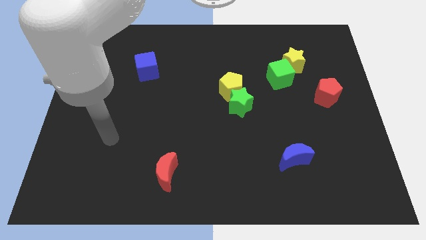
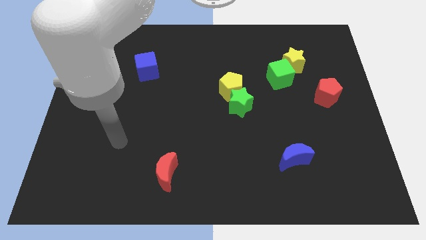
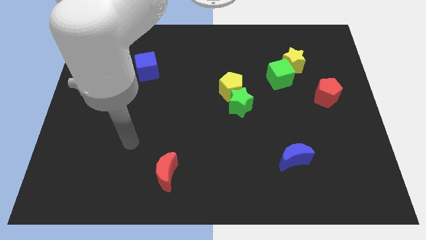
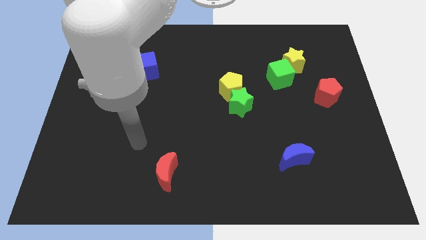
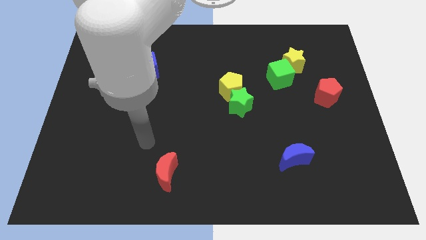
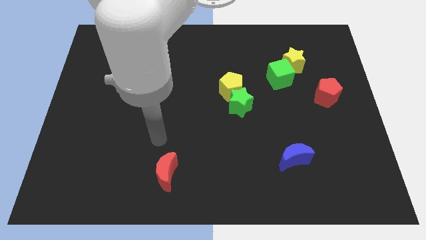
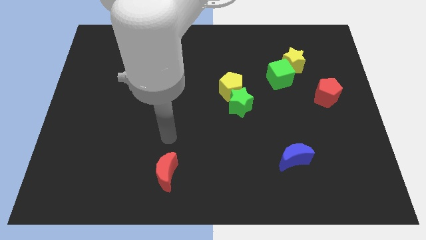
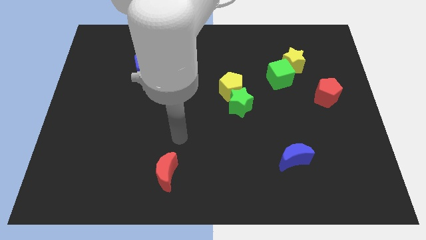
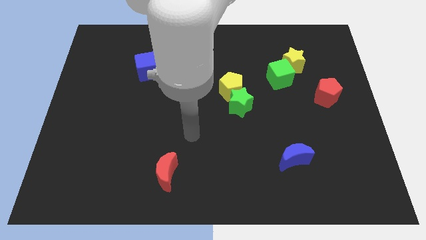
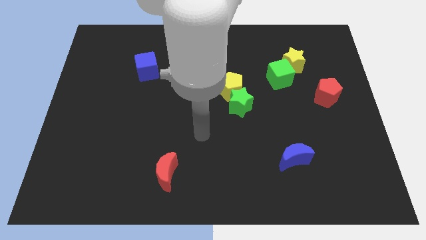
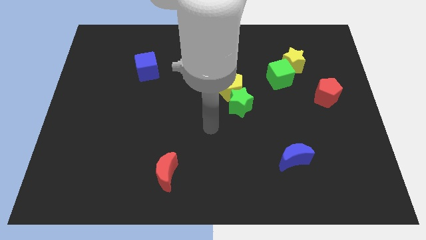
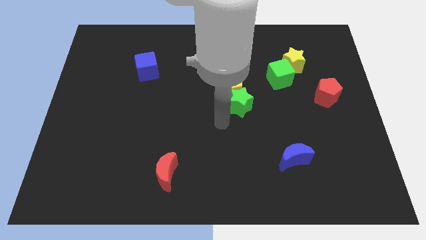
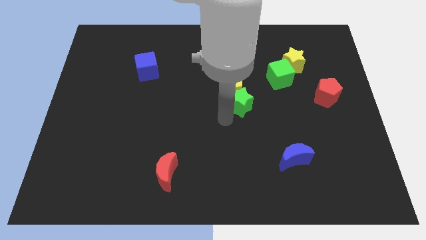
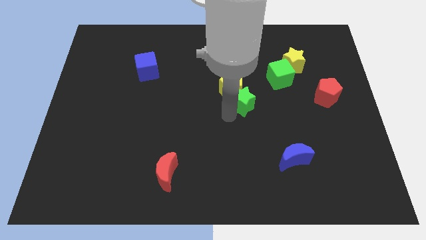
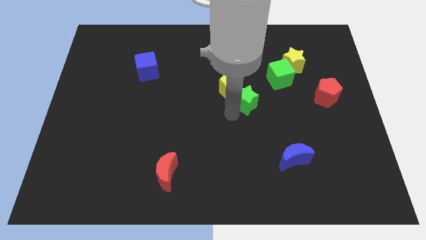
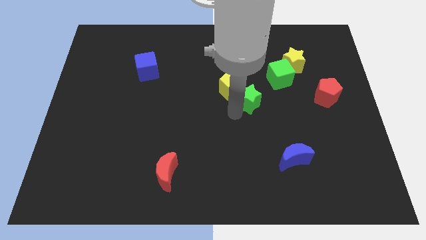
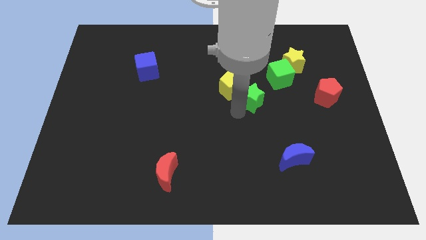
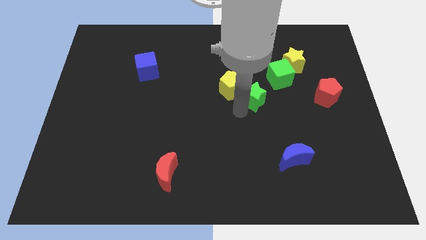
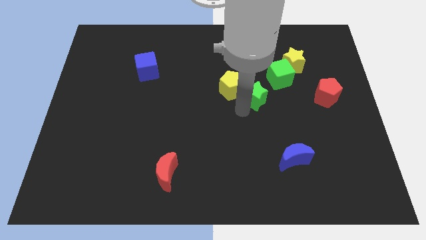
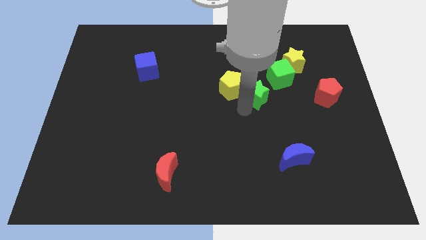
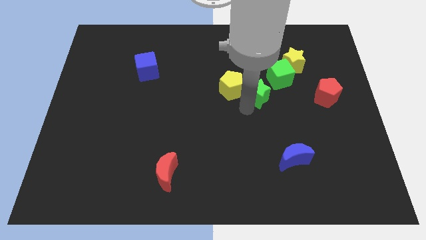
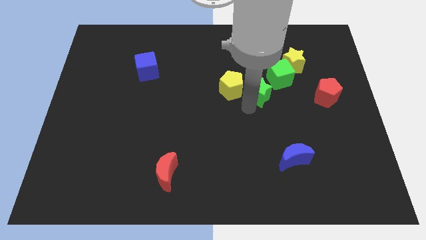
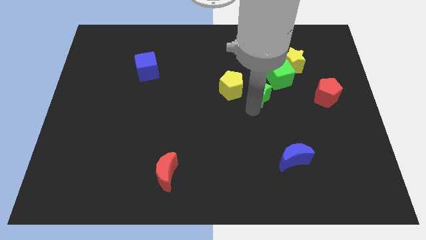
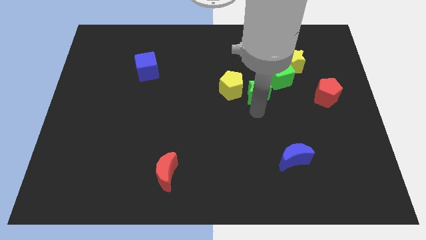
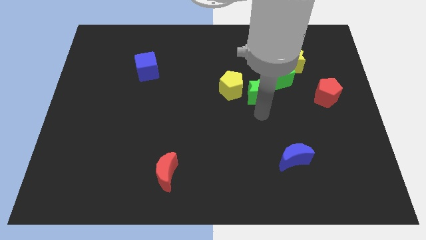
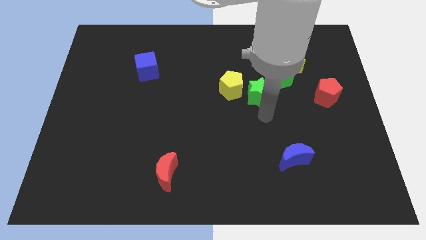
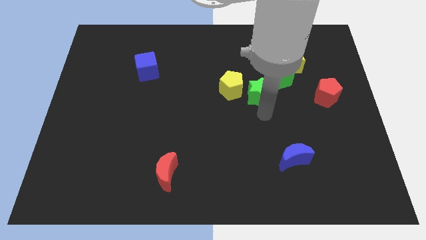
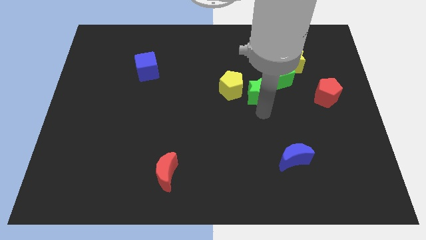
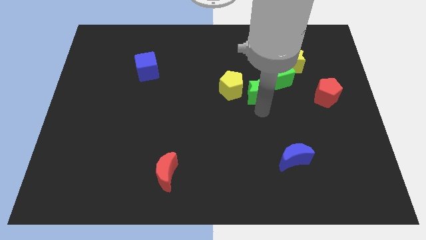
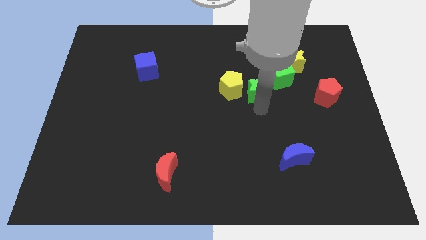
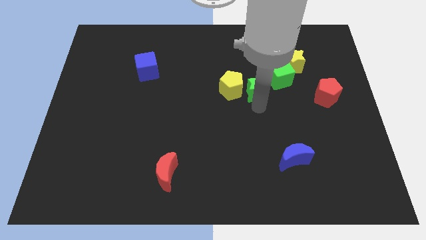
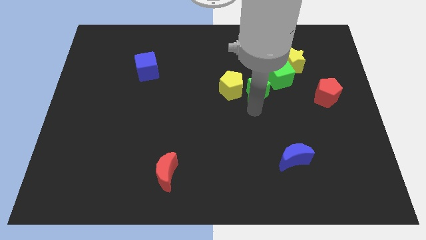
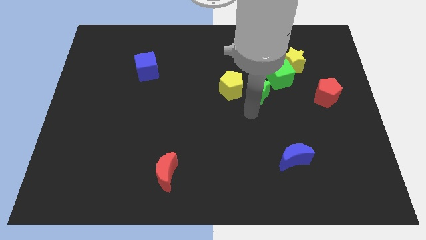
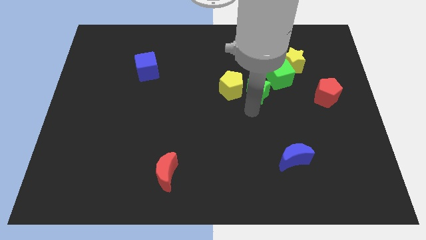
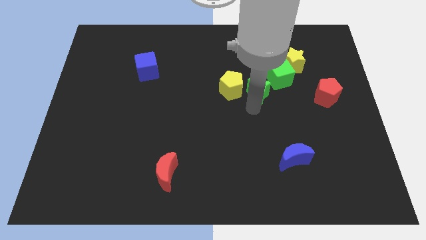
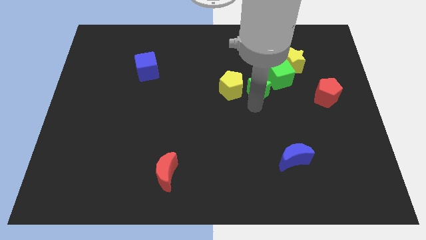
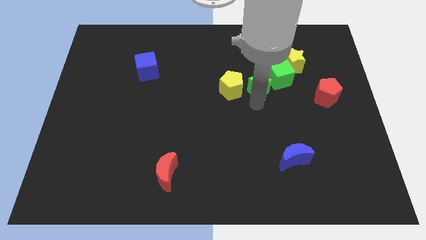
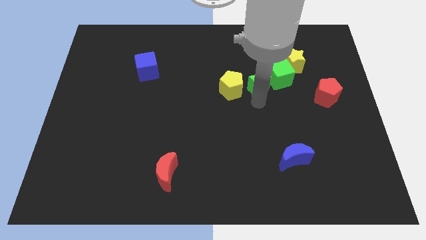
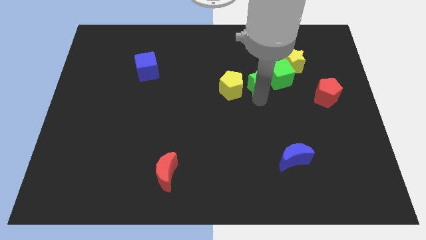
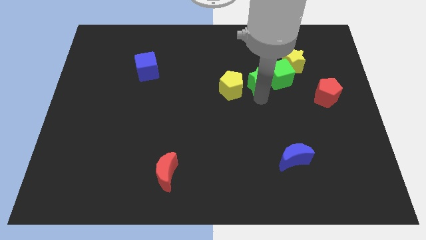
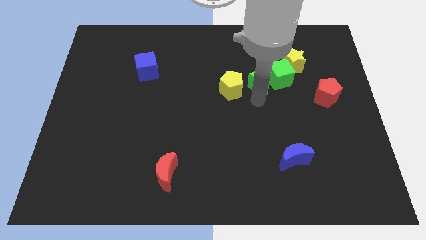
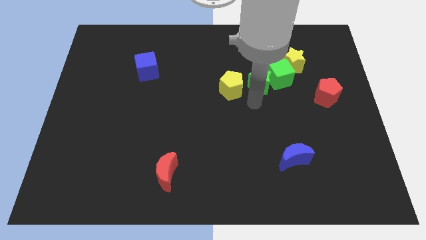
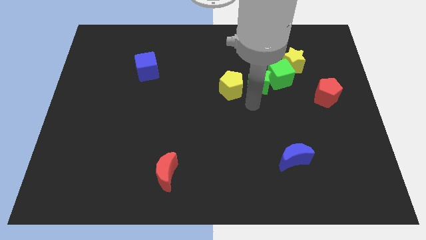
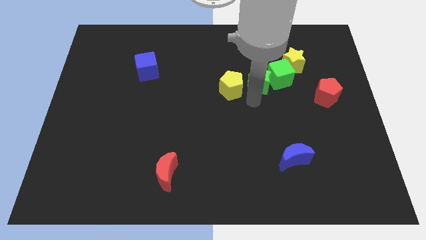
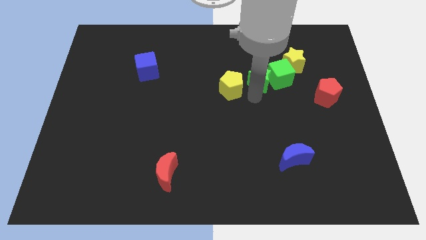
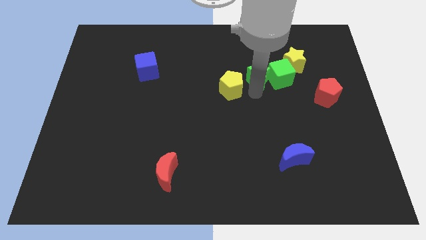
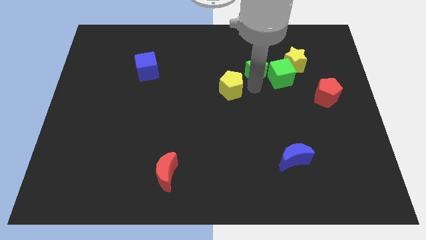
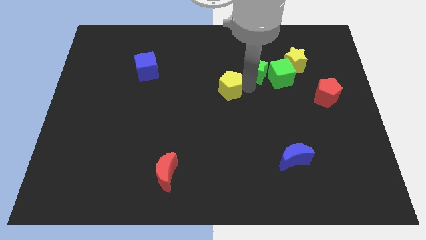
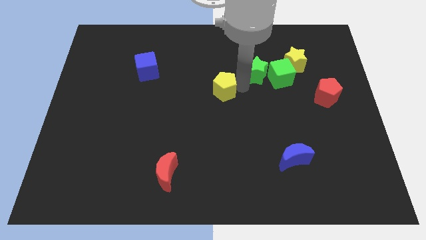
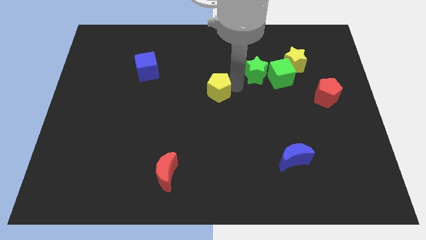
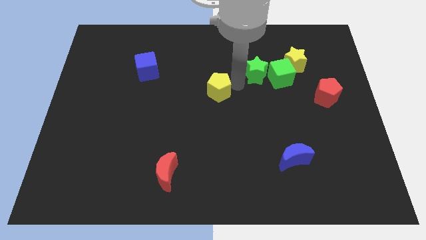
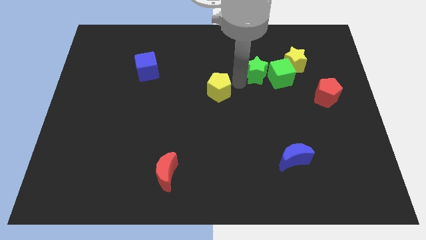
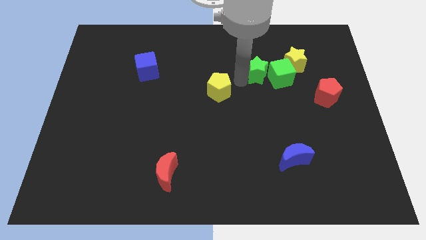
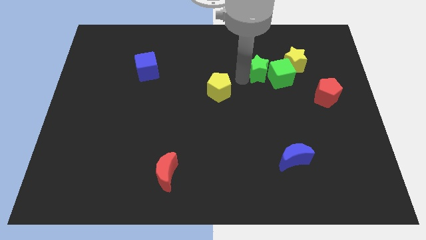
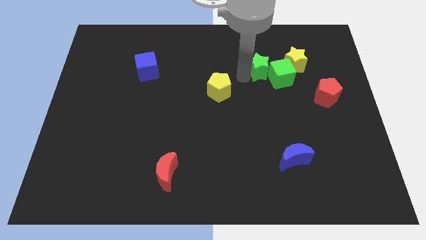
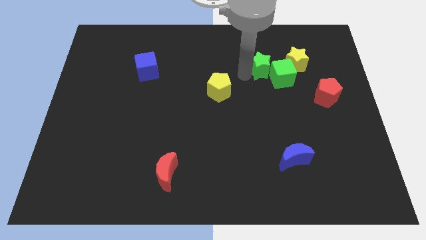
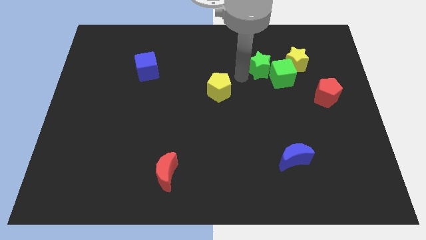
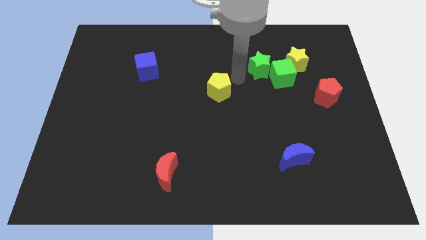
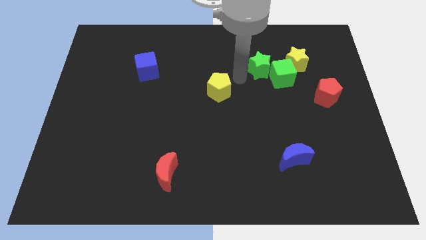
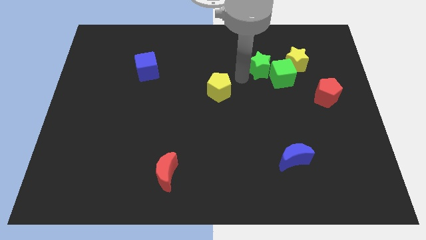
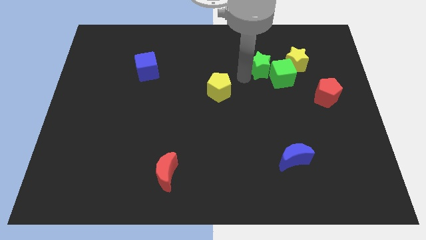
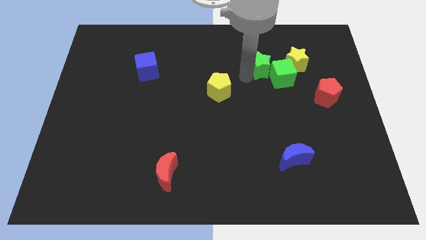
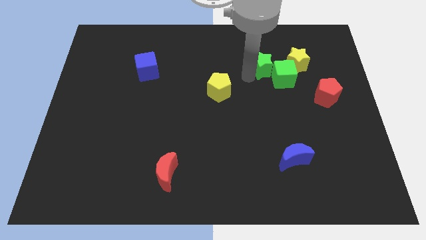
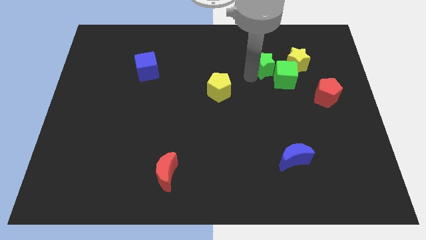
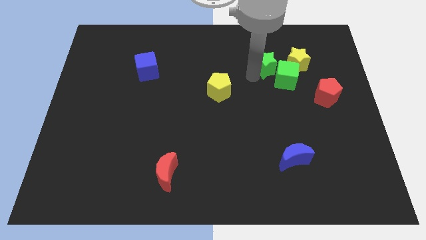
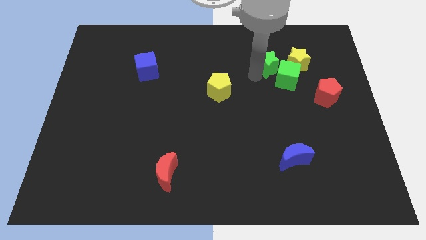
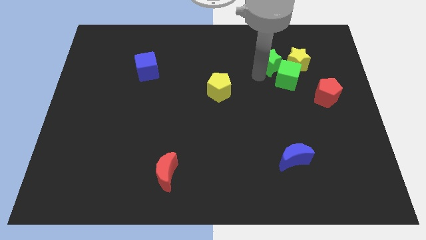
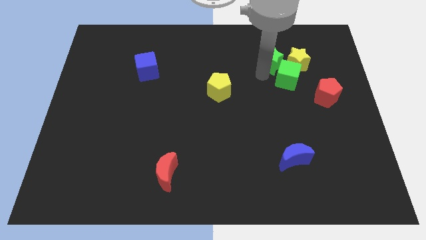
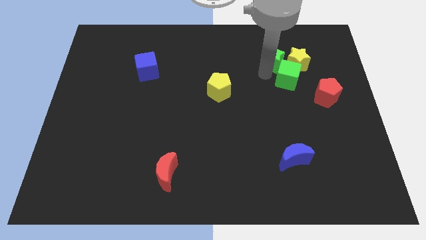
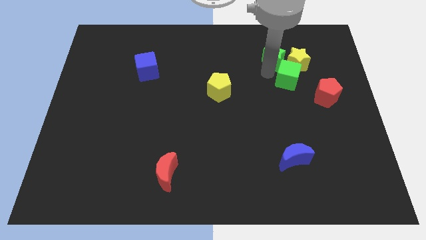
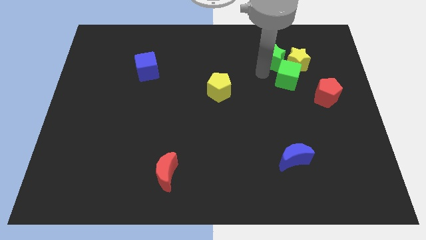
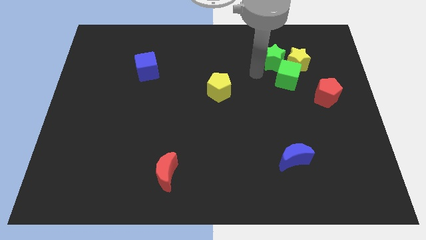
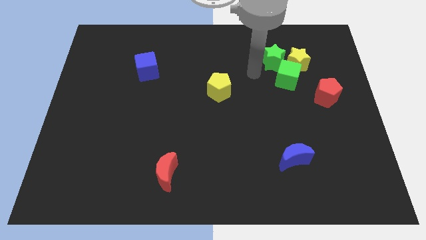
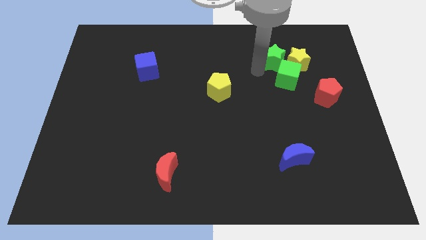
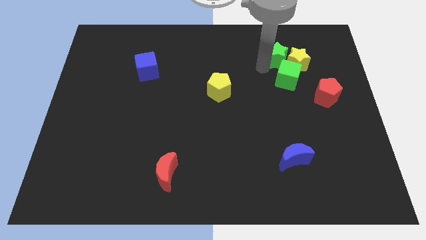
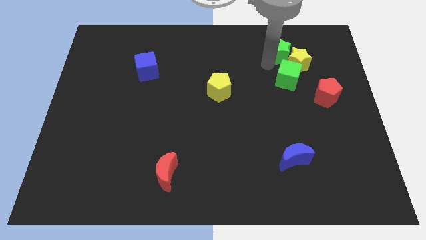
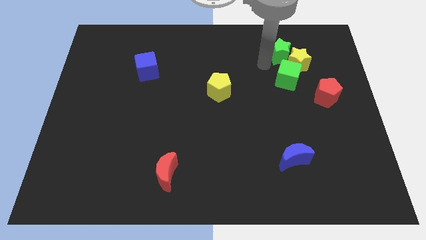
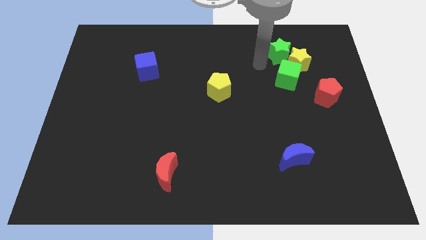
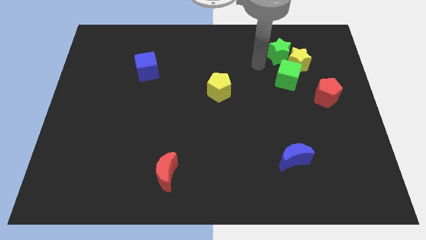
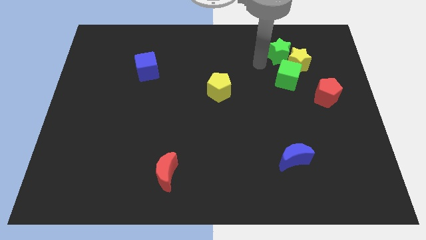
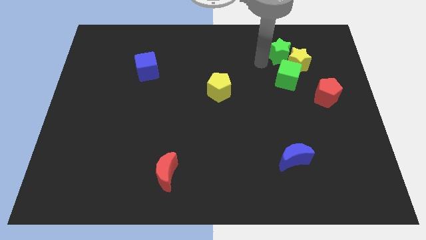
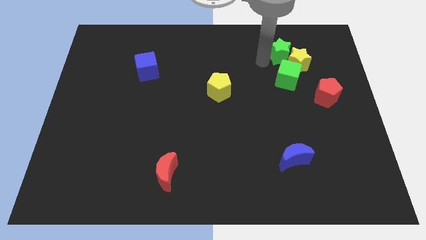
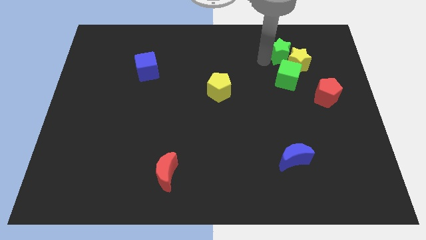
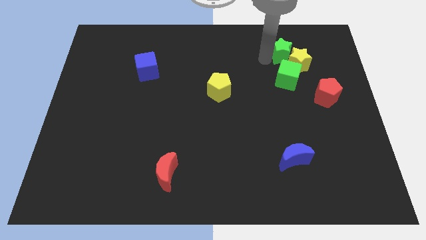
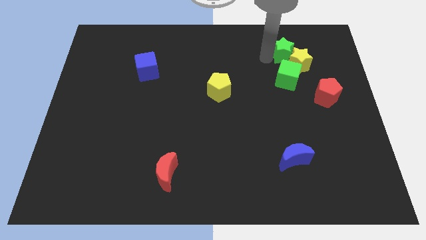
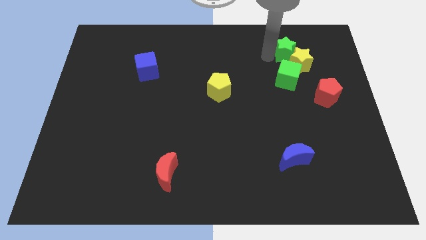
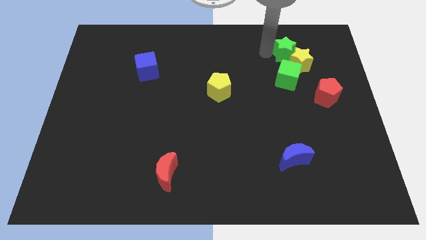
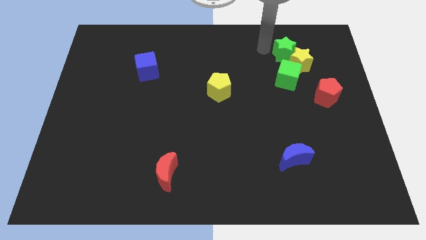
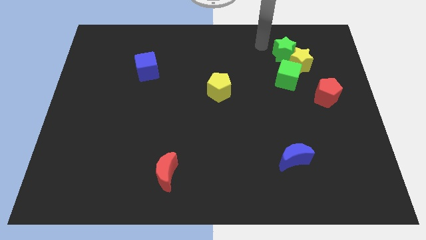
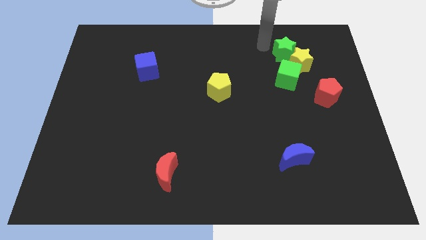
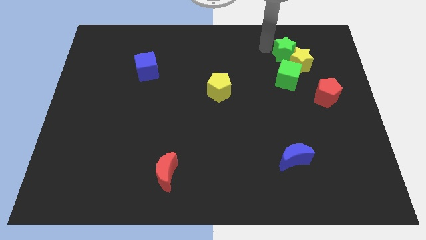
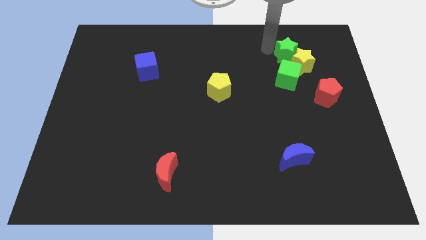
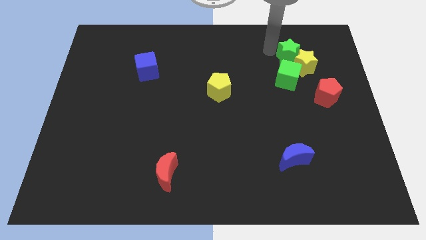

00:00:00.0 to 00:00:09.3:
put the green star diagonally up and to the right of the green cube
